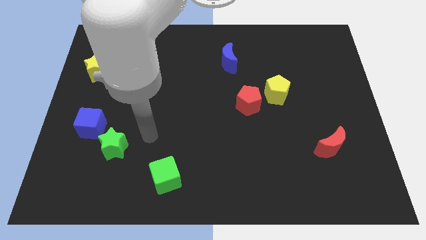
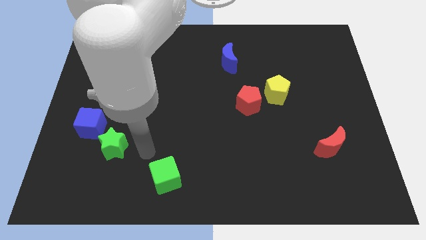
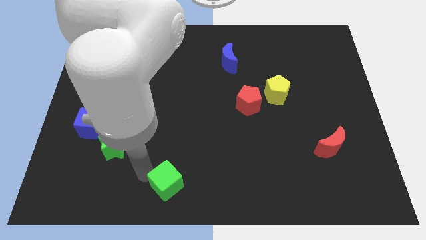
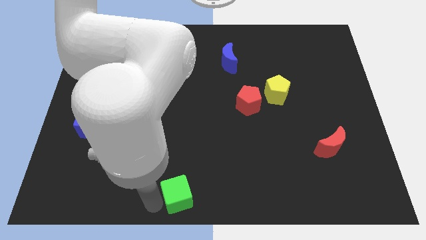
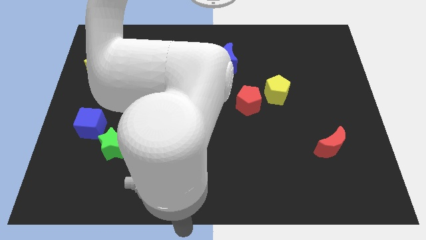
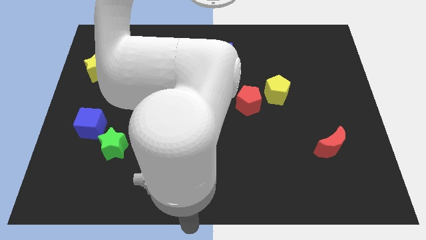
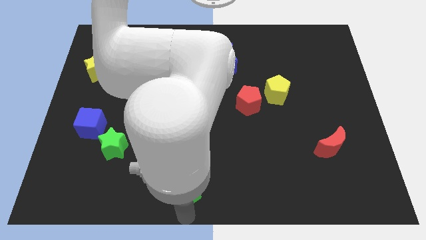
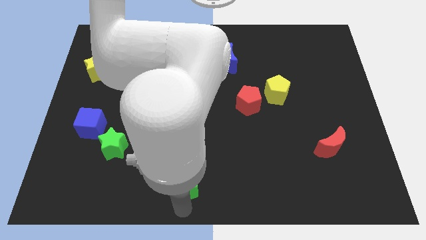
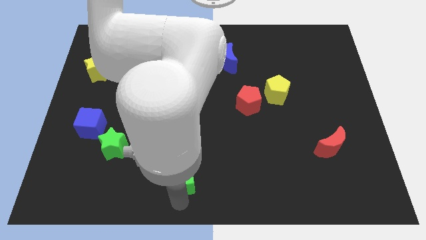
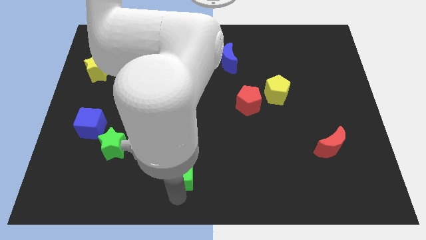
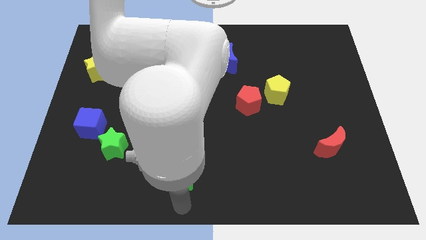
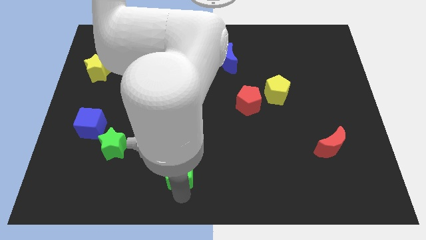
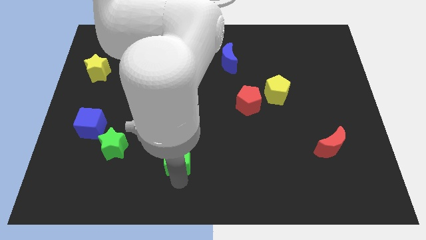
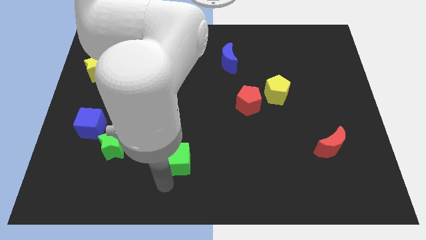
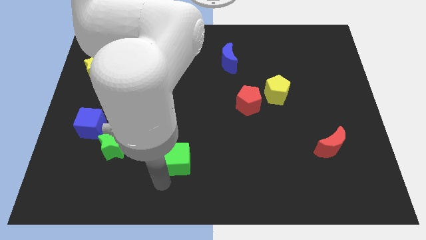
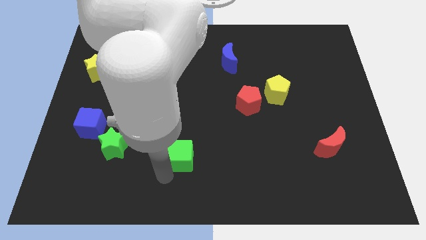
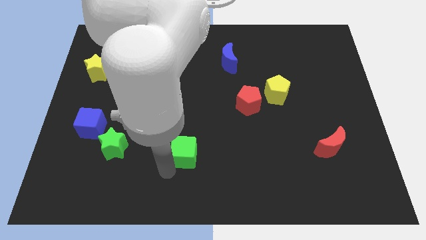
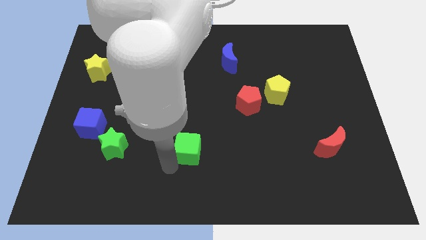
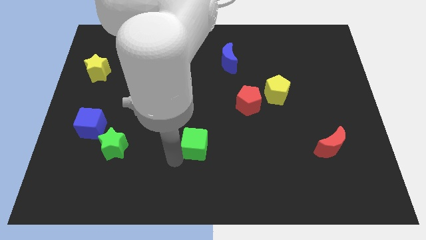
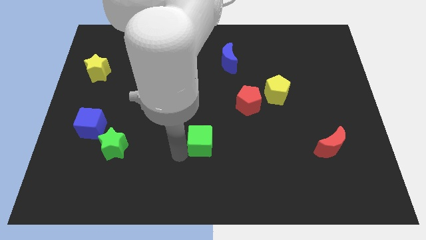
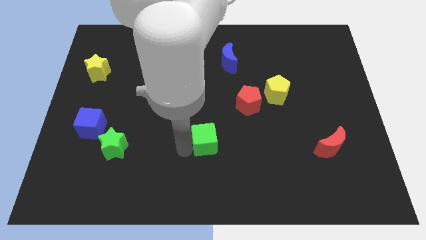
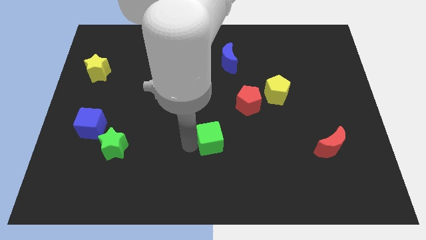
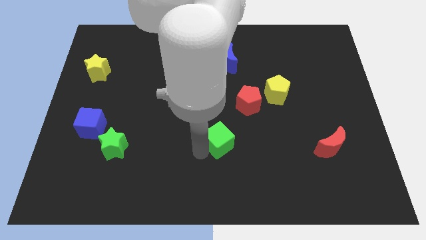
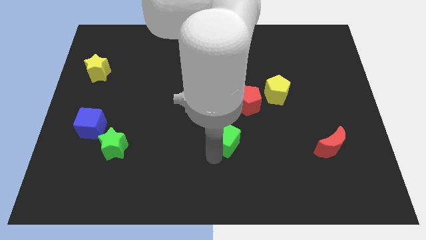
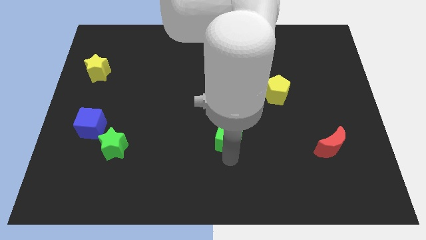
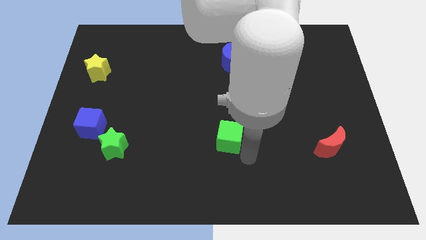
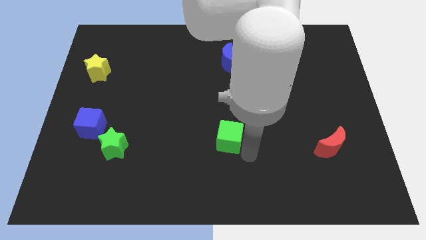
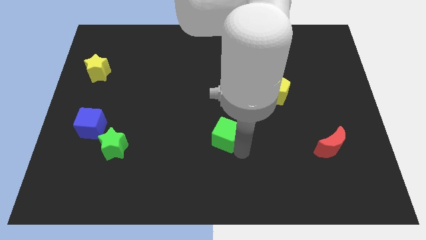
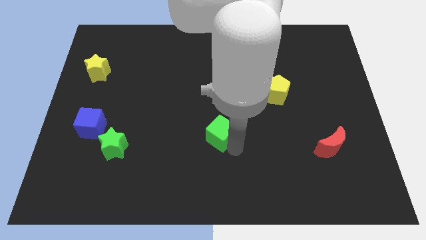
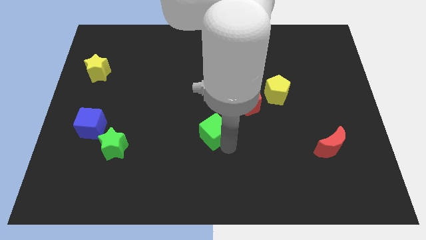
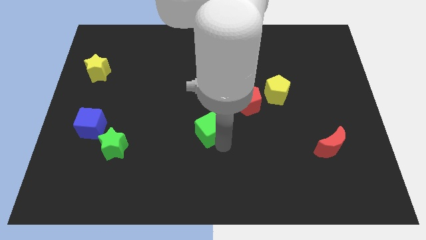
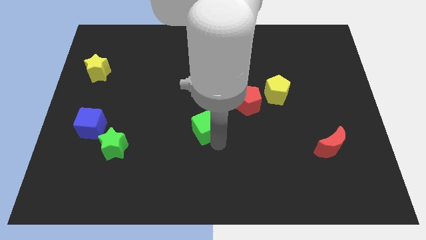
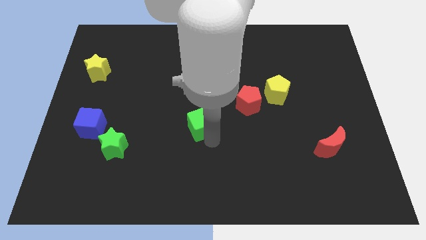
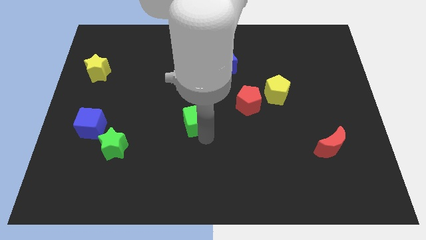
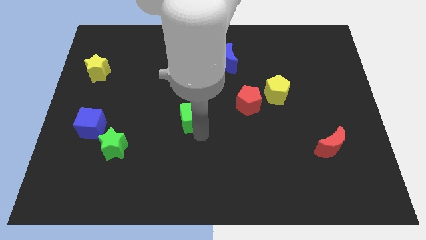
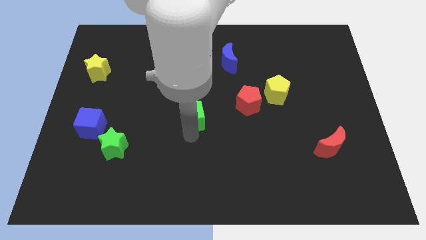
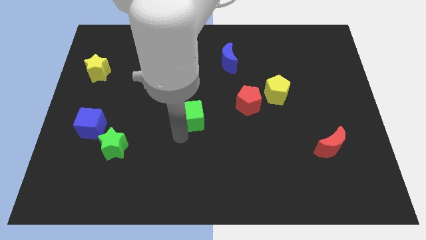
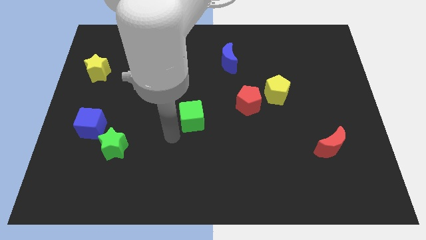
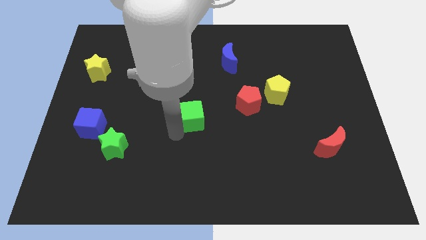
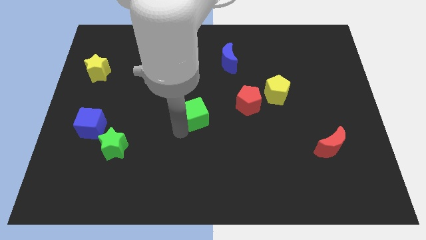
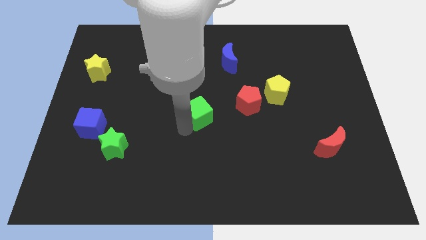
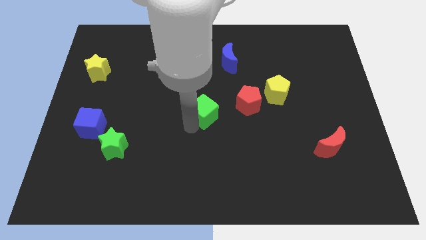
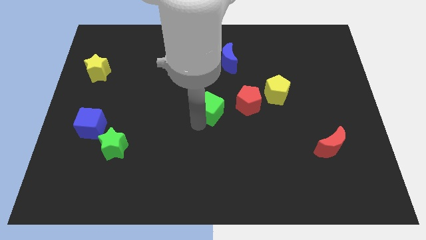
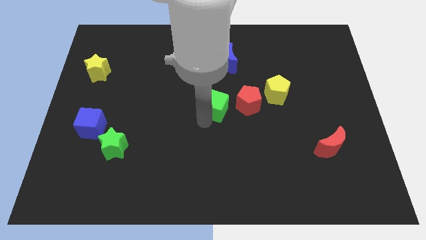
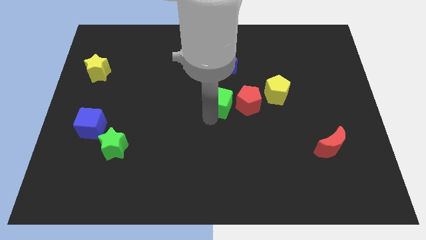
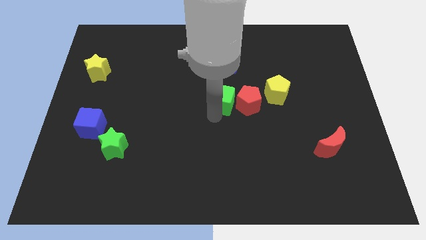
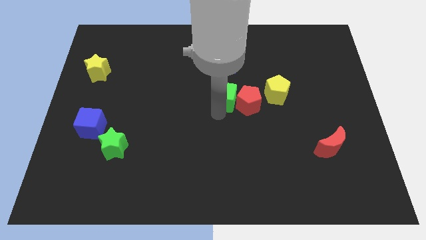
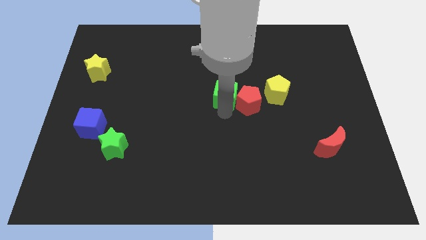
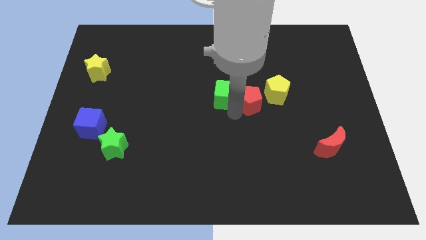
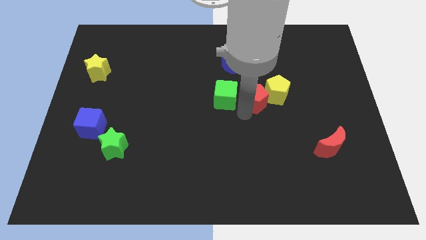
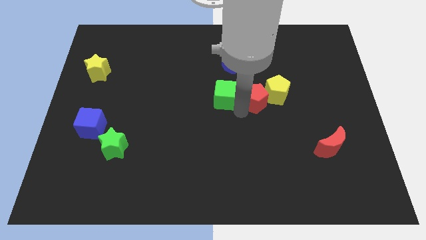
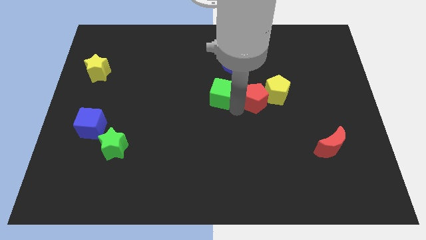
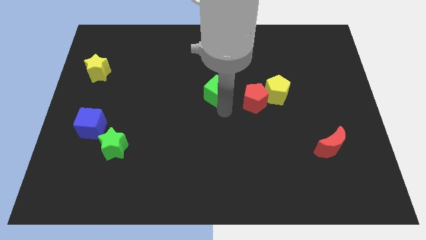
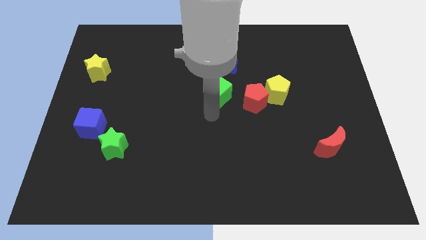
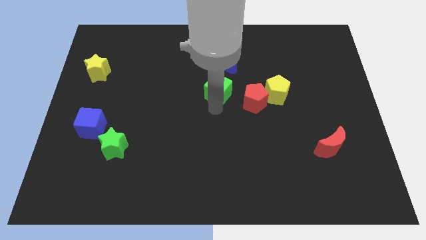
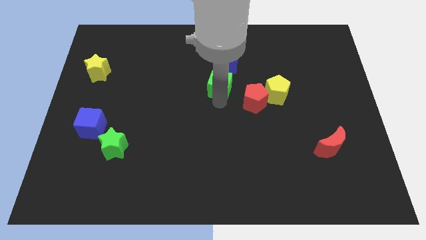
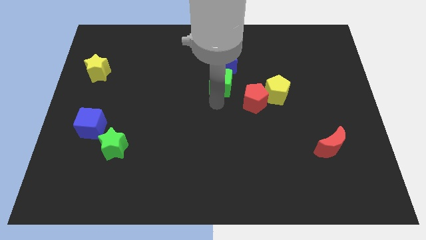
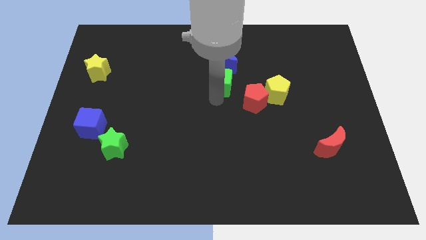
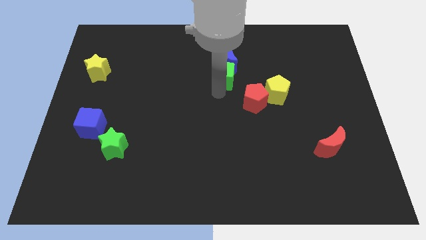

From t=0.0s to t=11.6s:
slide the green cube towards the blue moon
